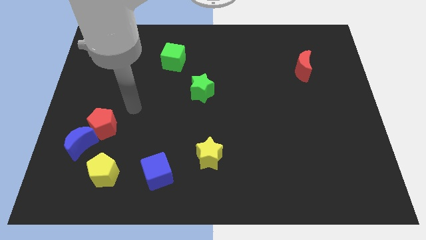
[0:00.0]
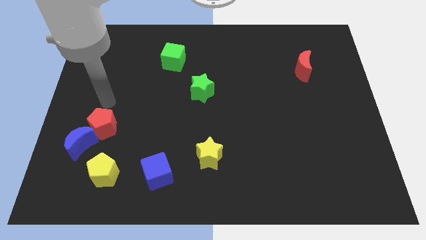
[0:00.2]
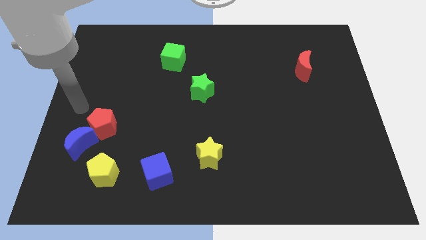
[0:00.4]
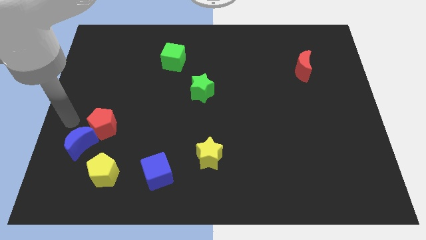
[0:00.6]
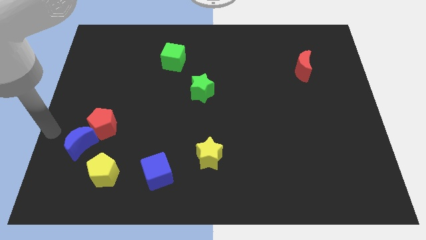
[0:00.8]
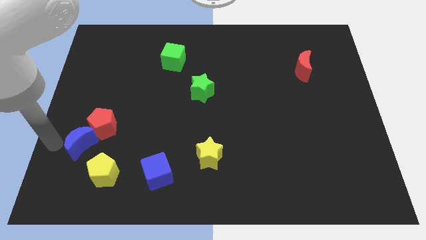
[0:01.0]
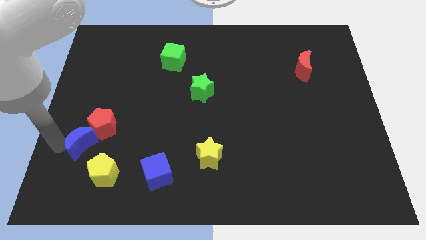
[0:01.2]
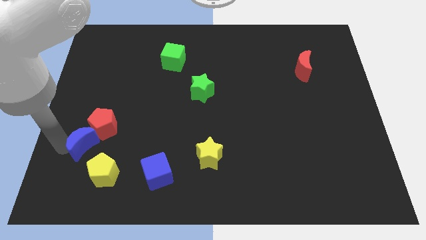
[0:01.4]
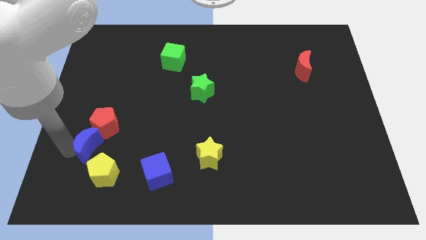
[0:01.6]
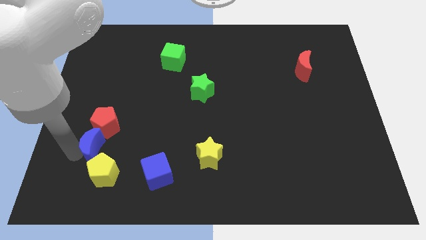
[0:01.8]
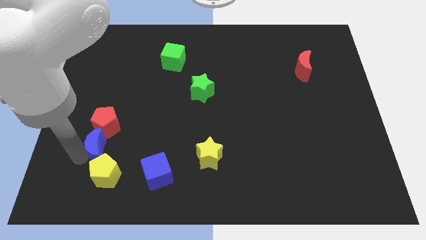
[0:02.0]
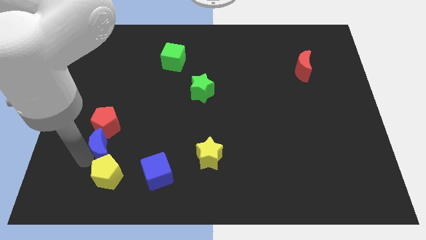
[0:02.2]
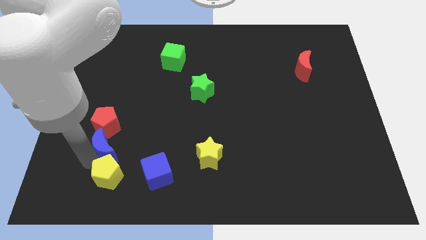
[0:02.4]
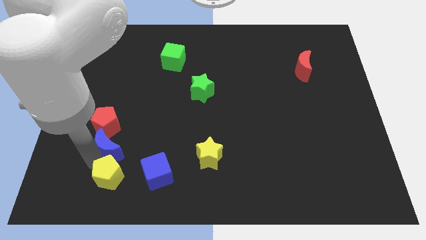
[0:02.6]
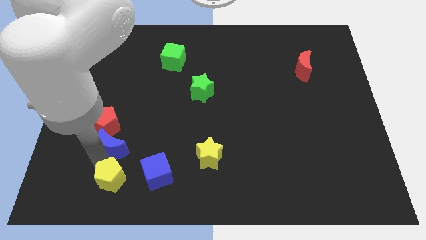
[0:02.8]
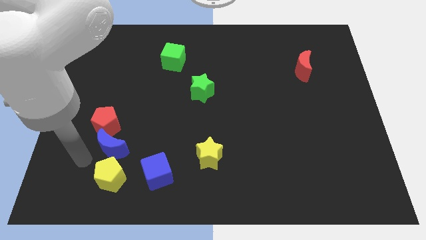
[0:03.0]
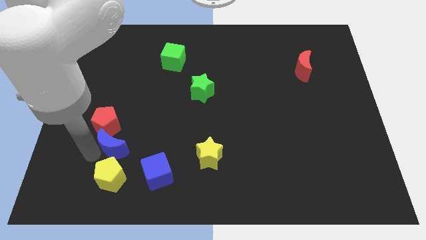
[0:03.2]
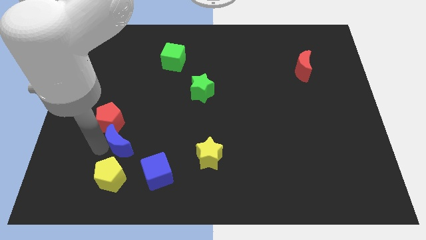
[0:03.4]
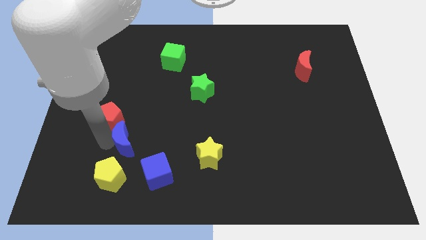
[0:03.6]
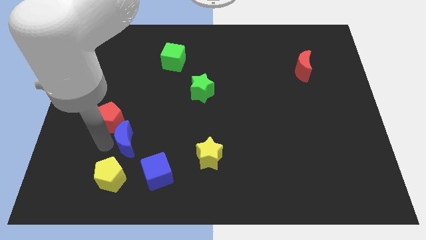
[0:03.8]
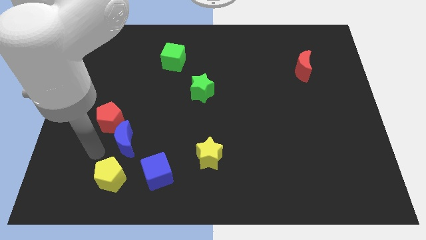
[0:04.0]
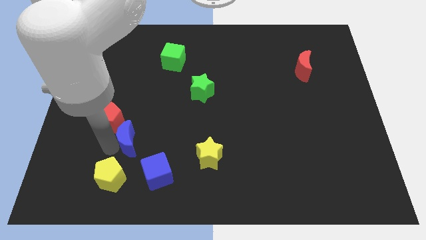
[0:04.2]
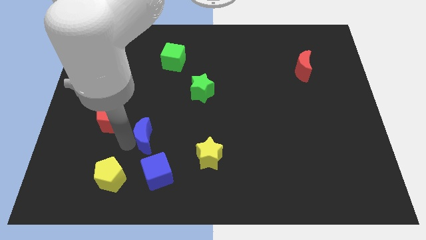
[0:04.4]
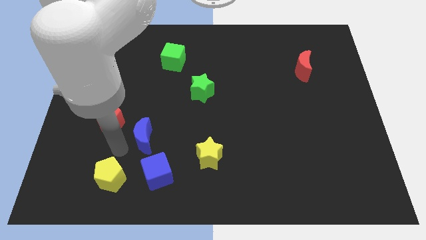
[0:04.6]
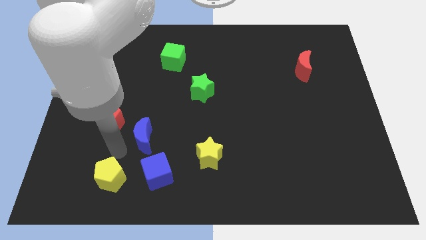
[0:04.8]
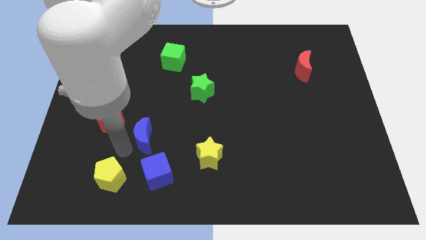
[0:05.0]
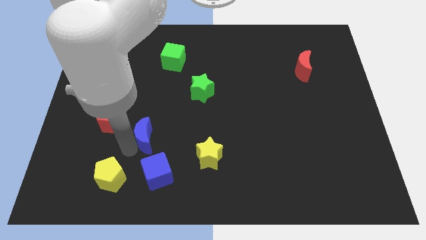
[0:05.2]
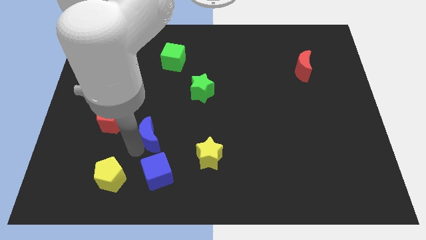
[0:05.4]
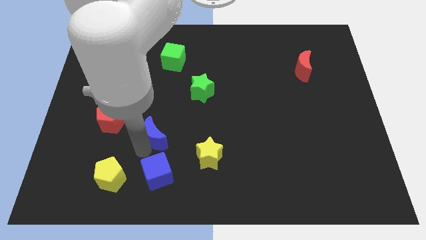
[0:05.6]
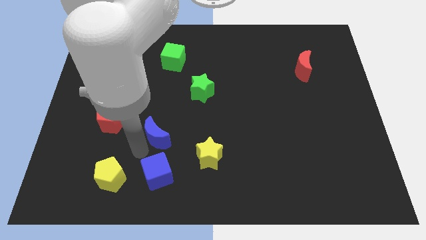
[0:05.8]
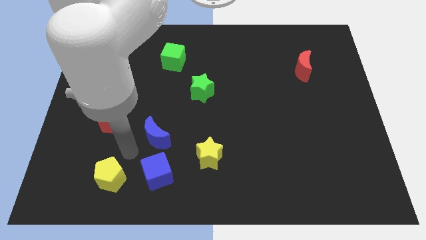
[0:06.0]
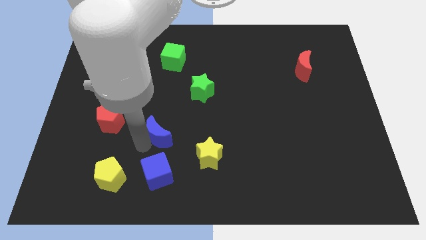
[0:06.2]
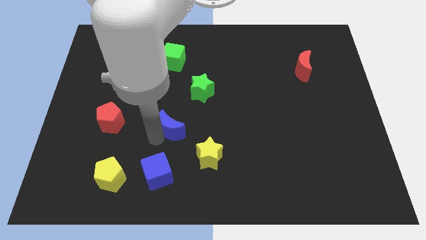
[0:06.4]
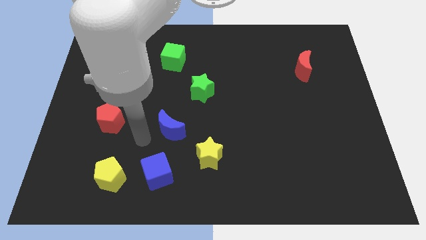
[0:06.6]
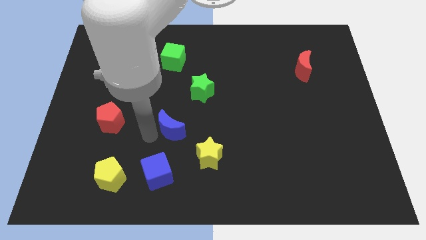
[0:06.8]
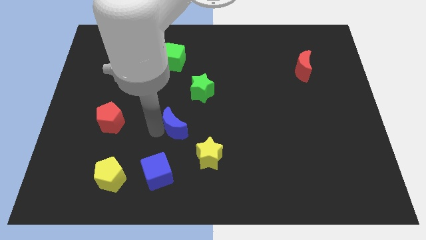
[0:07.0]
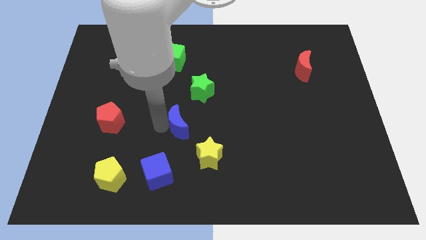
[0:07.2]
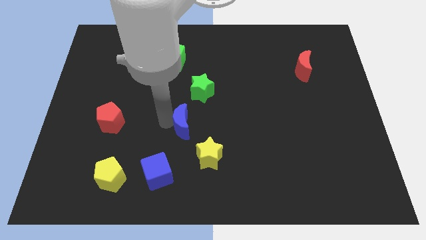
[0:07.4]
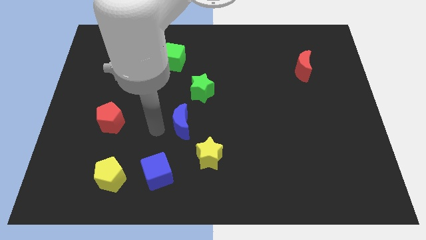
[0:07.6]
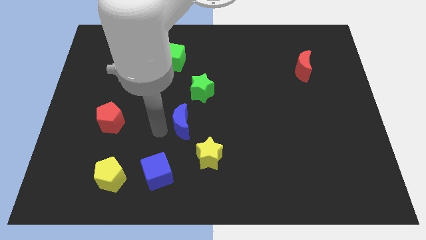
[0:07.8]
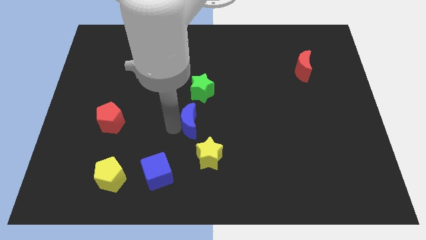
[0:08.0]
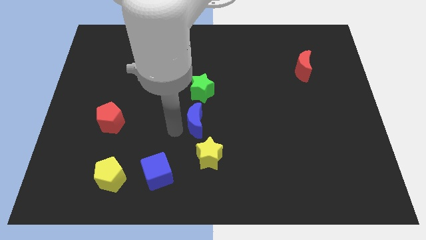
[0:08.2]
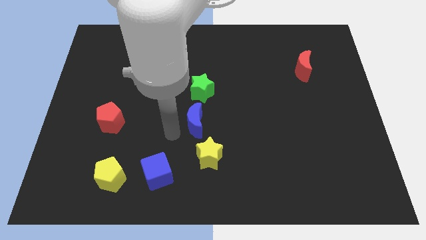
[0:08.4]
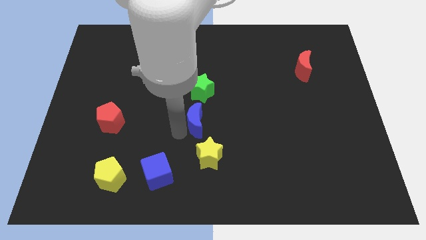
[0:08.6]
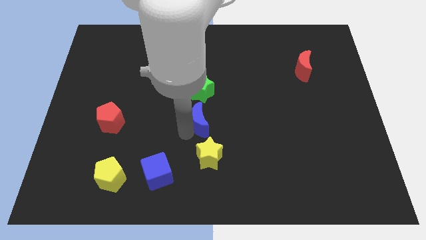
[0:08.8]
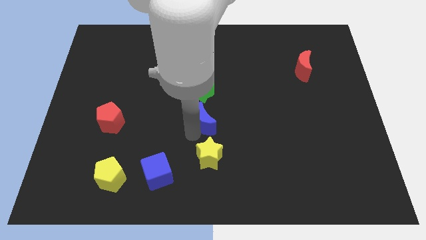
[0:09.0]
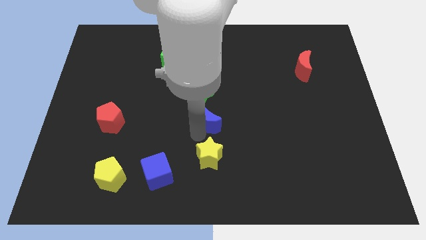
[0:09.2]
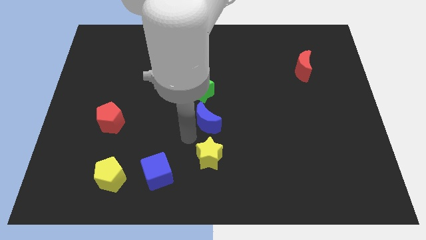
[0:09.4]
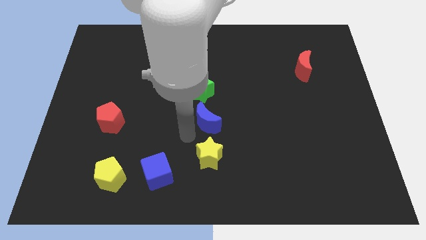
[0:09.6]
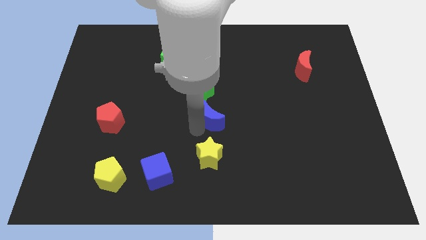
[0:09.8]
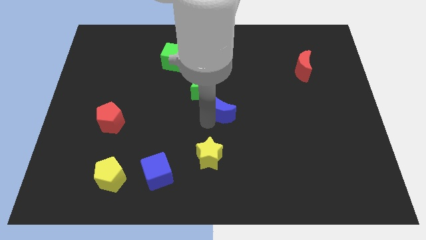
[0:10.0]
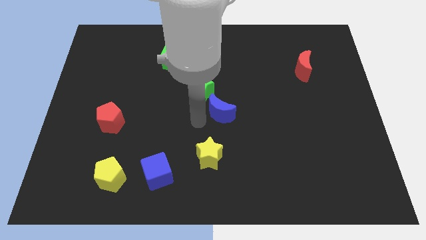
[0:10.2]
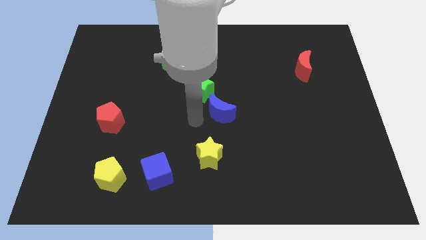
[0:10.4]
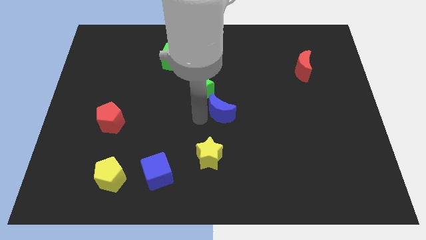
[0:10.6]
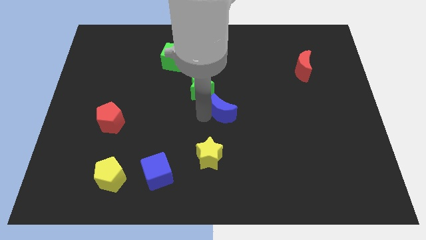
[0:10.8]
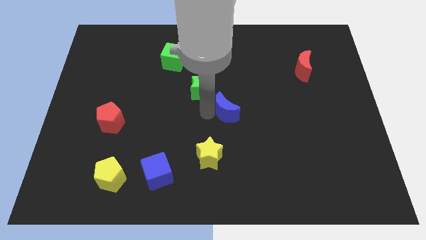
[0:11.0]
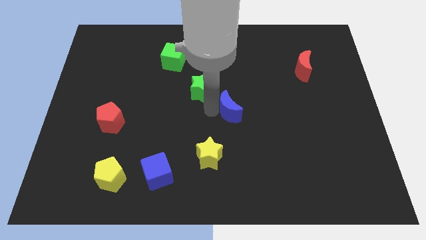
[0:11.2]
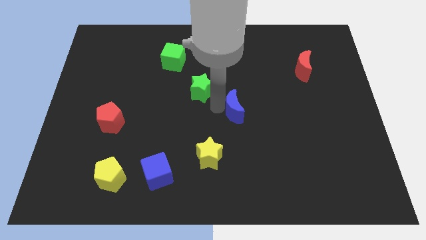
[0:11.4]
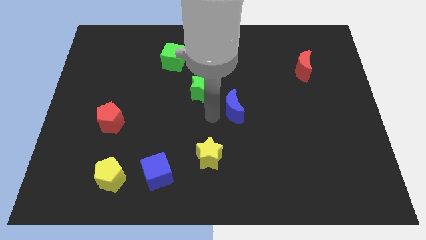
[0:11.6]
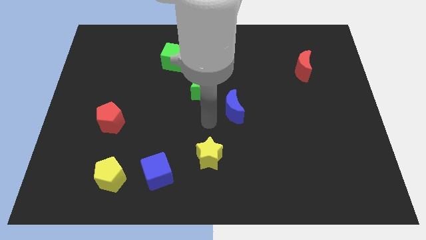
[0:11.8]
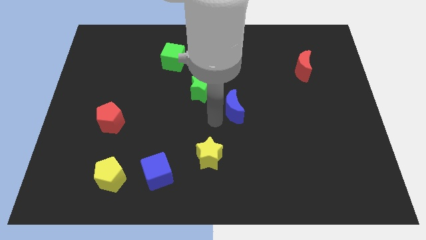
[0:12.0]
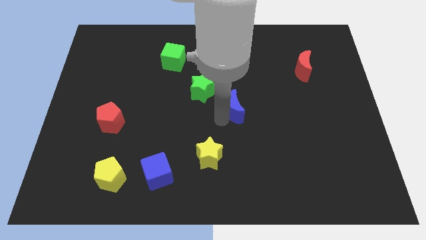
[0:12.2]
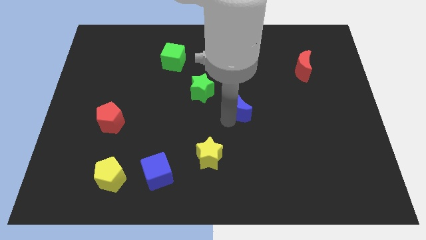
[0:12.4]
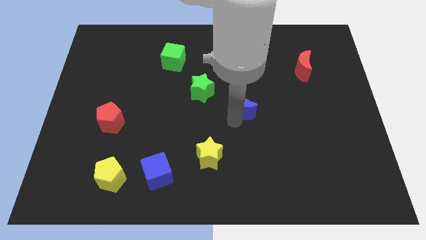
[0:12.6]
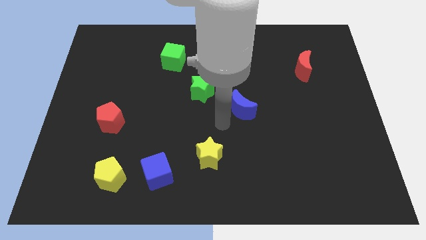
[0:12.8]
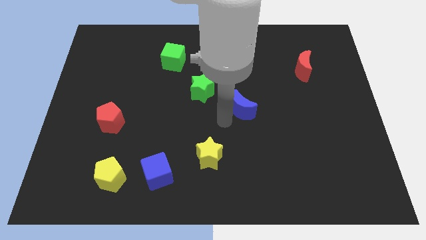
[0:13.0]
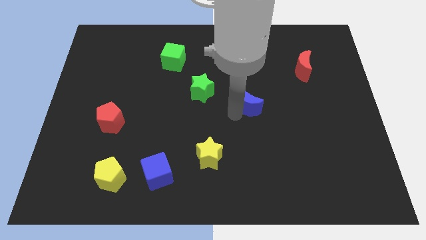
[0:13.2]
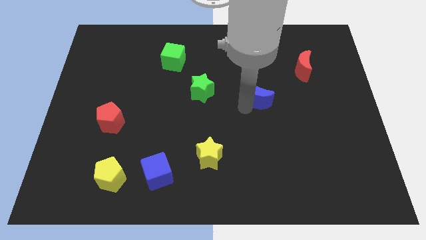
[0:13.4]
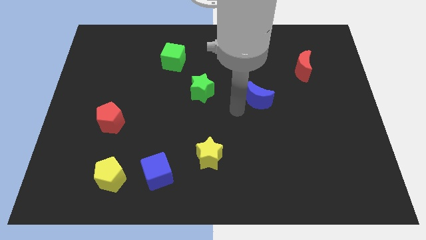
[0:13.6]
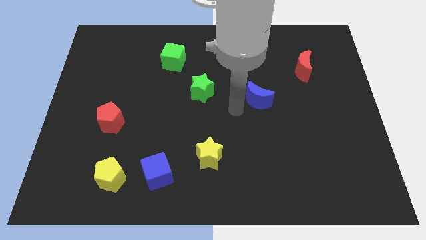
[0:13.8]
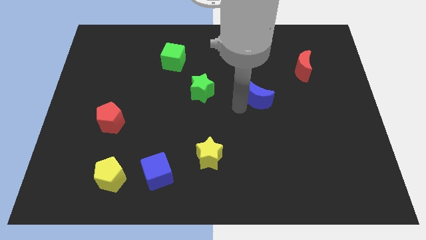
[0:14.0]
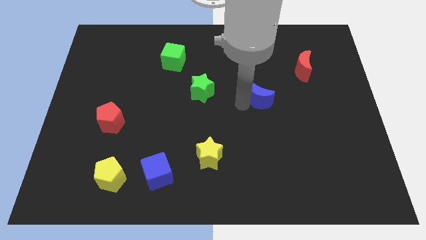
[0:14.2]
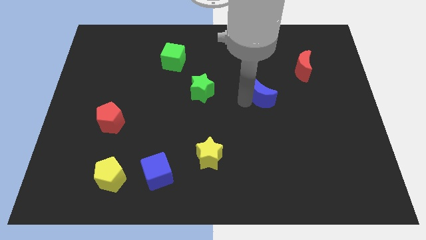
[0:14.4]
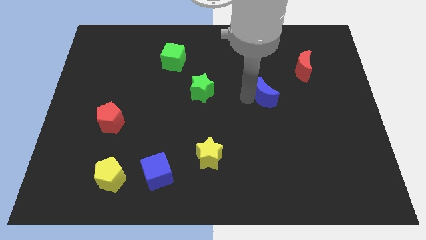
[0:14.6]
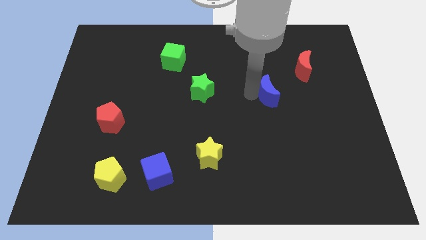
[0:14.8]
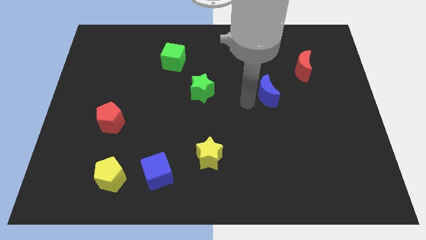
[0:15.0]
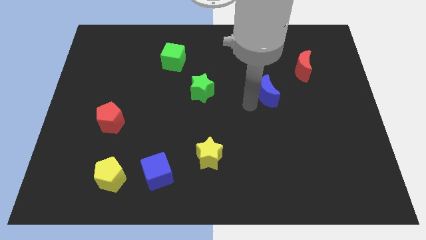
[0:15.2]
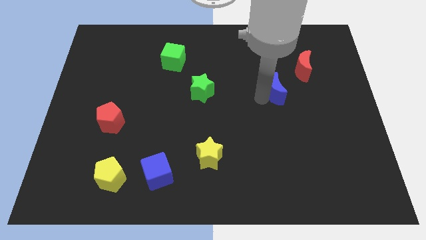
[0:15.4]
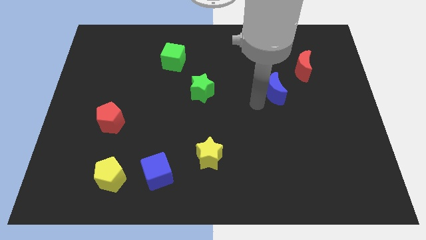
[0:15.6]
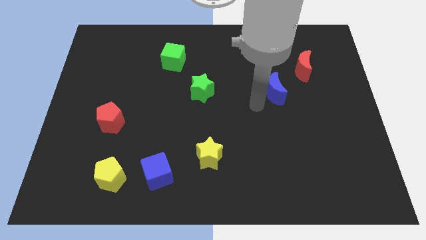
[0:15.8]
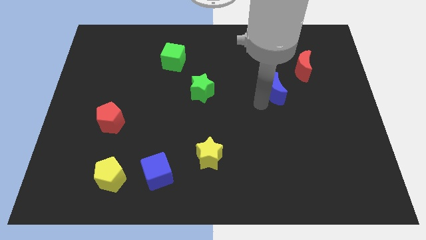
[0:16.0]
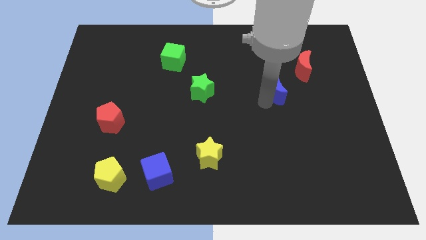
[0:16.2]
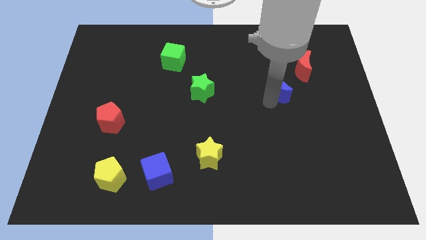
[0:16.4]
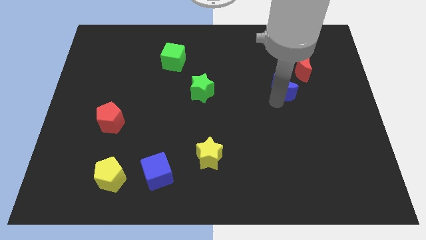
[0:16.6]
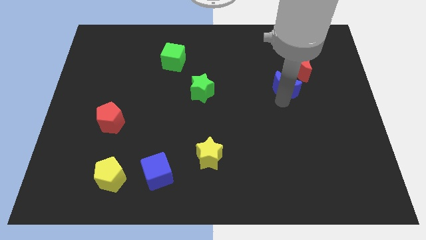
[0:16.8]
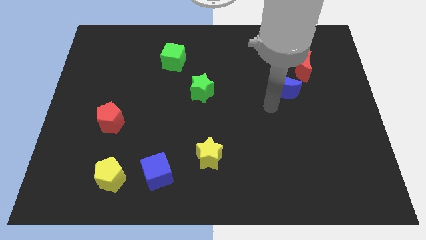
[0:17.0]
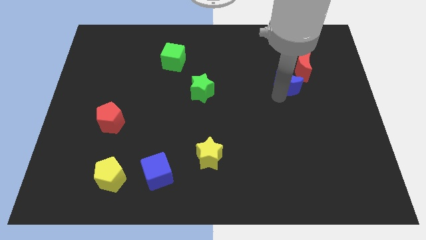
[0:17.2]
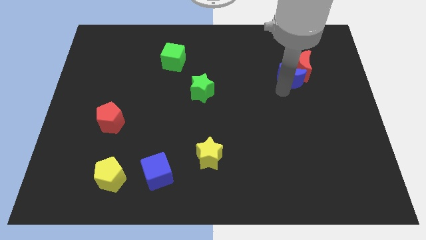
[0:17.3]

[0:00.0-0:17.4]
put the blue moon next to the red moon
